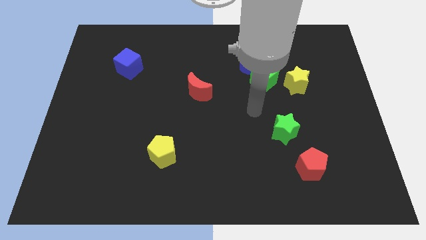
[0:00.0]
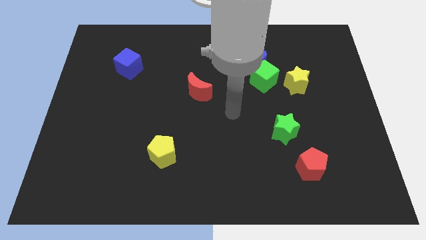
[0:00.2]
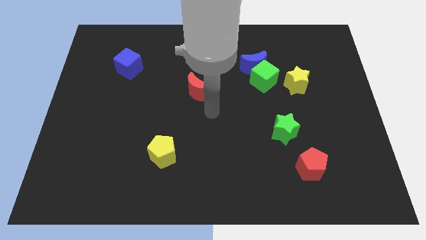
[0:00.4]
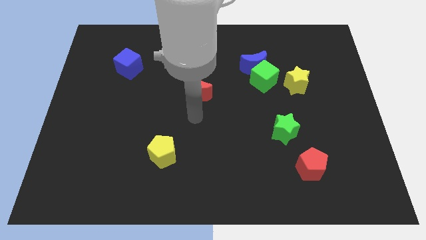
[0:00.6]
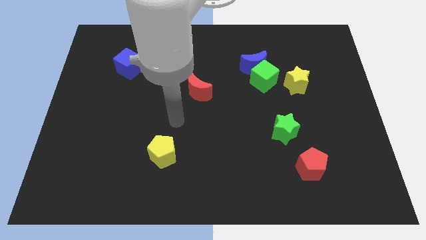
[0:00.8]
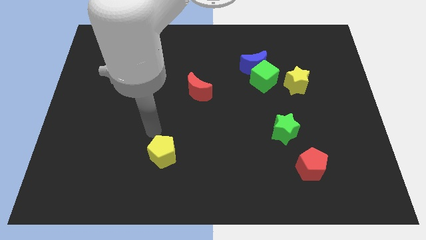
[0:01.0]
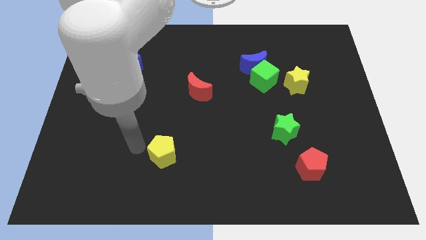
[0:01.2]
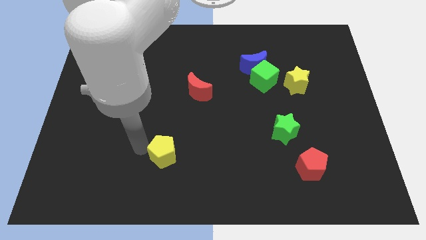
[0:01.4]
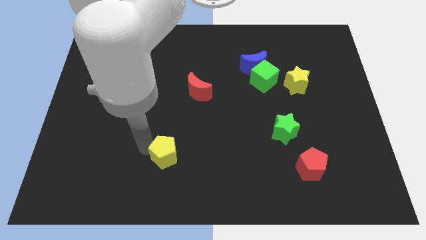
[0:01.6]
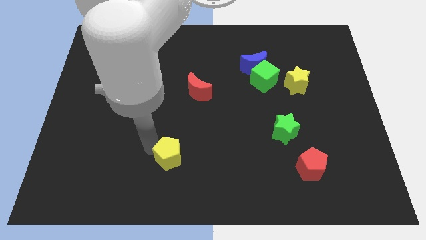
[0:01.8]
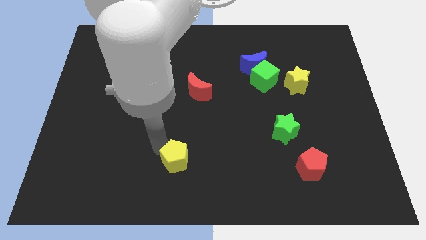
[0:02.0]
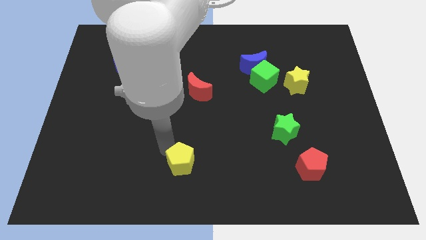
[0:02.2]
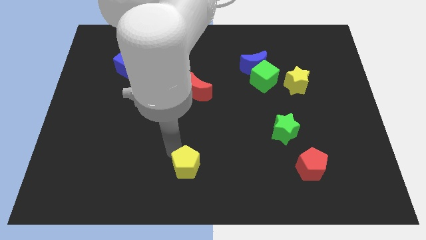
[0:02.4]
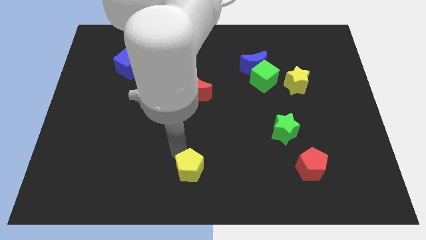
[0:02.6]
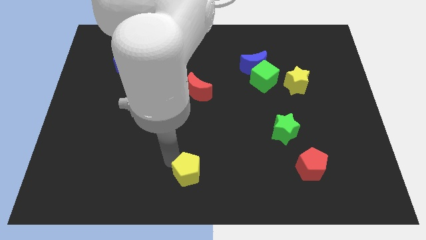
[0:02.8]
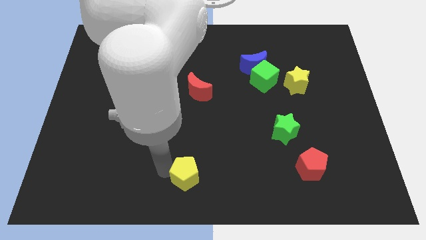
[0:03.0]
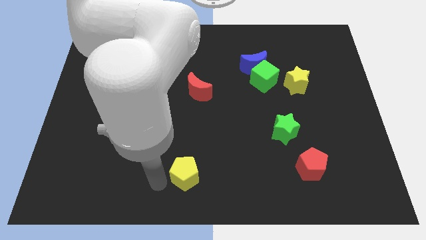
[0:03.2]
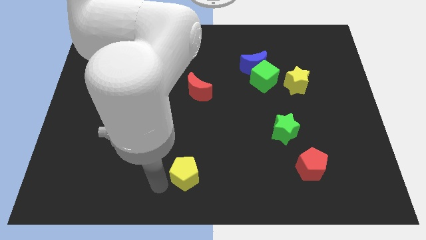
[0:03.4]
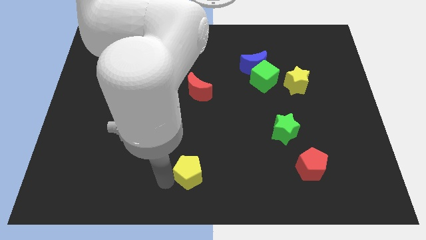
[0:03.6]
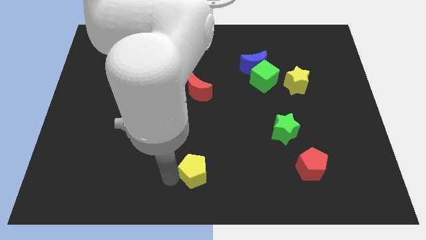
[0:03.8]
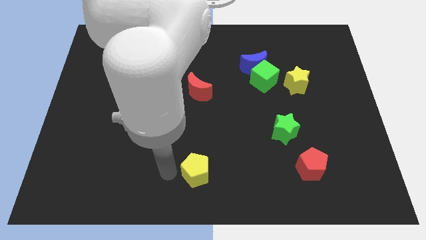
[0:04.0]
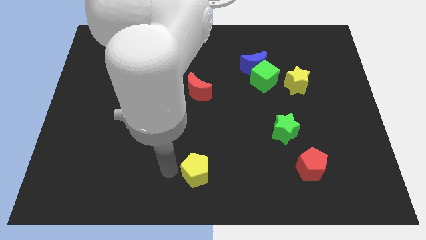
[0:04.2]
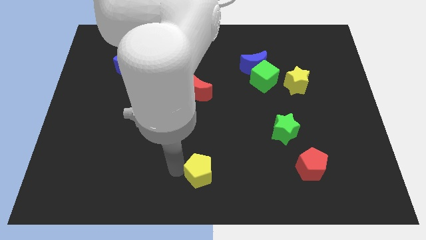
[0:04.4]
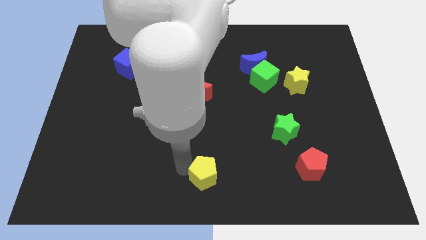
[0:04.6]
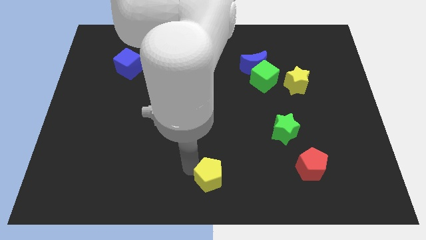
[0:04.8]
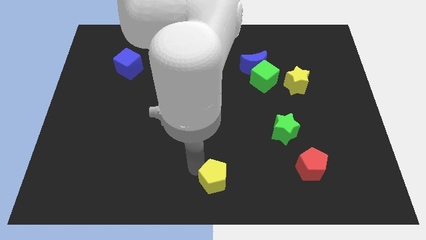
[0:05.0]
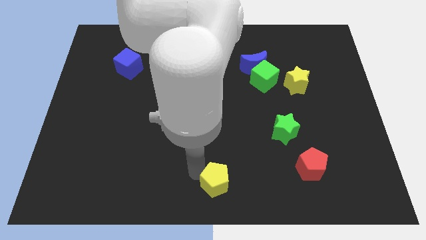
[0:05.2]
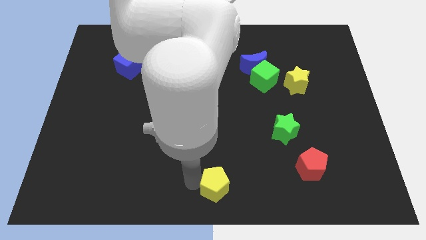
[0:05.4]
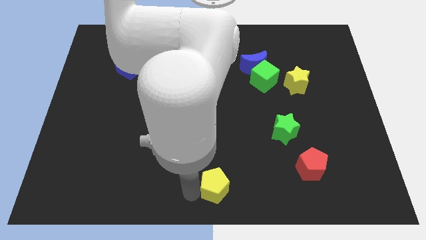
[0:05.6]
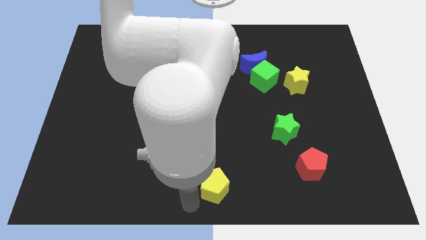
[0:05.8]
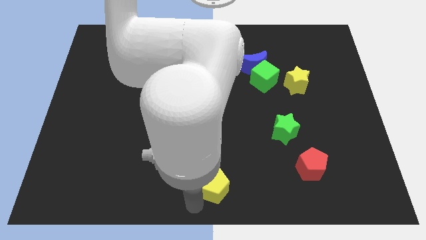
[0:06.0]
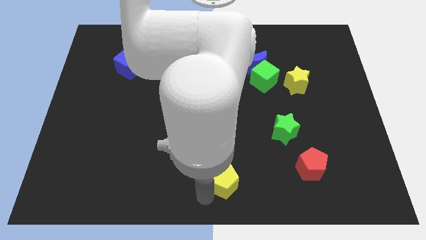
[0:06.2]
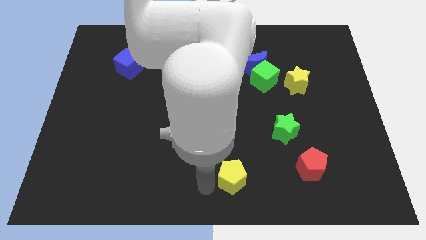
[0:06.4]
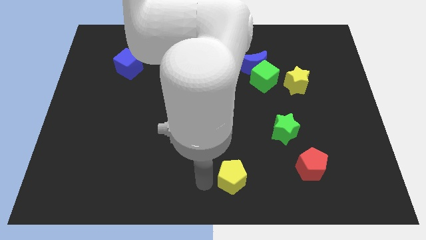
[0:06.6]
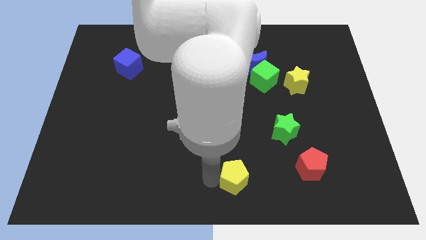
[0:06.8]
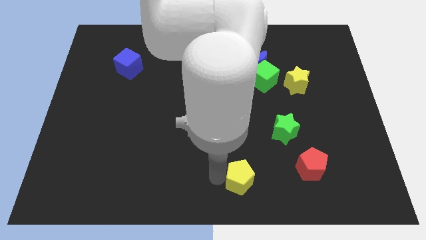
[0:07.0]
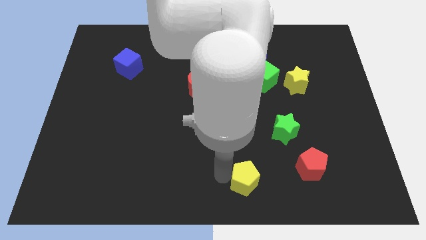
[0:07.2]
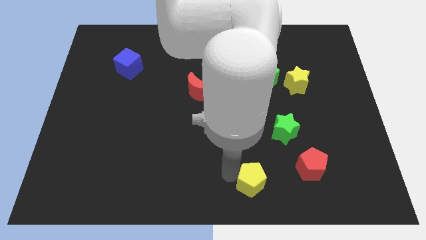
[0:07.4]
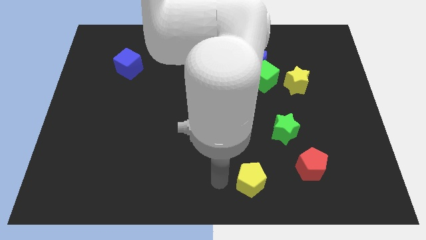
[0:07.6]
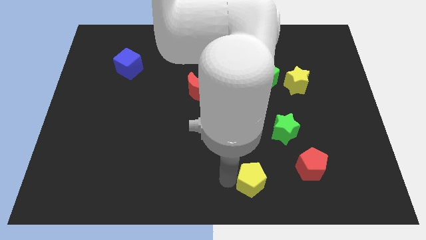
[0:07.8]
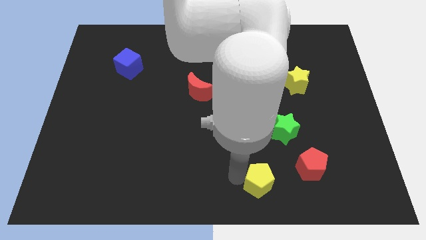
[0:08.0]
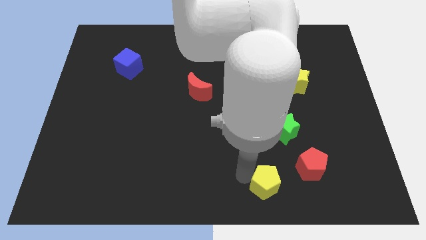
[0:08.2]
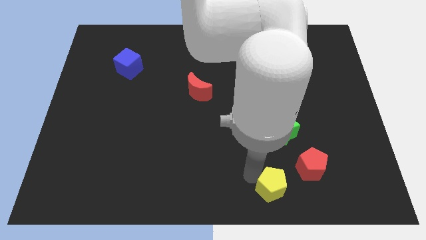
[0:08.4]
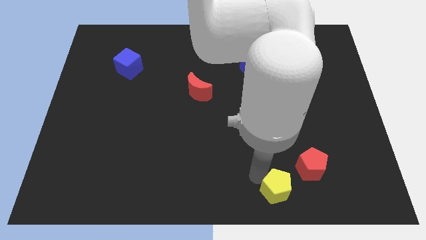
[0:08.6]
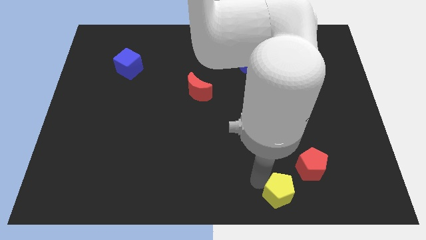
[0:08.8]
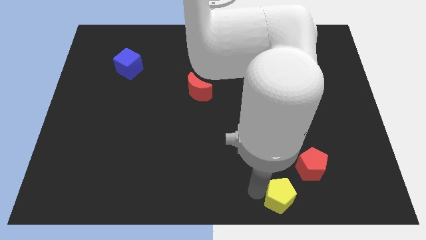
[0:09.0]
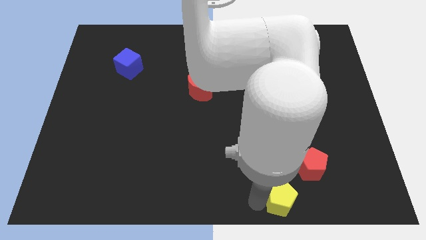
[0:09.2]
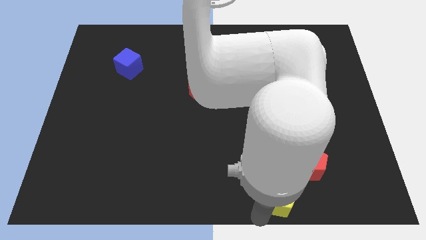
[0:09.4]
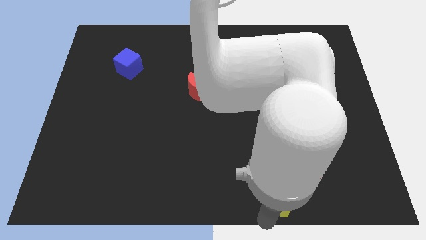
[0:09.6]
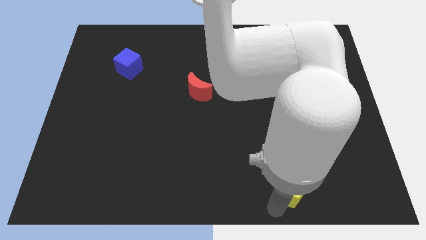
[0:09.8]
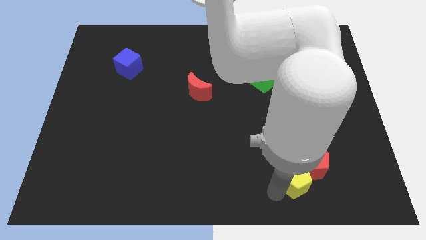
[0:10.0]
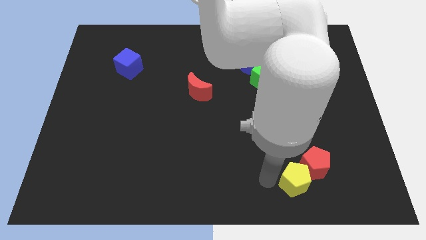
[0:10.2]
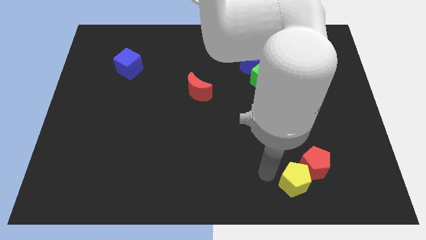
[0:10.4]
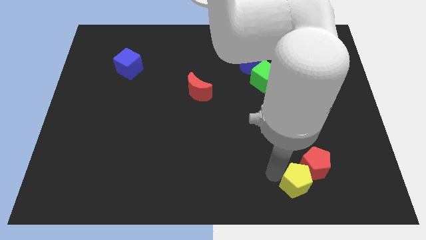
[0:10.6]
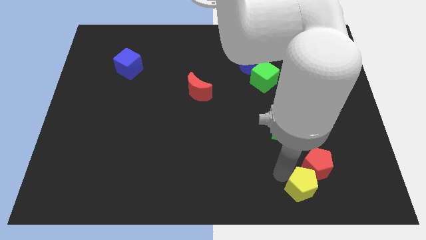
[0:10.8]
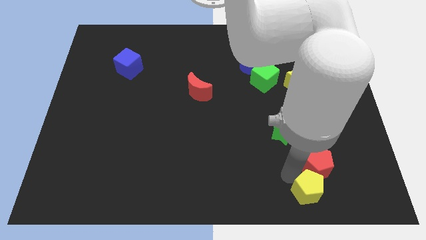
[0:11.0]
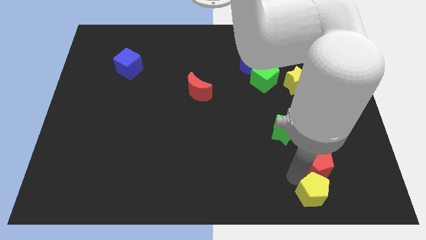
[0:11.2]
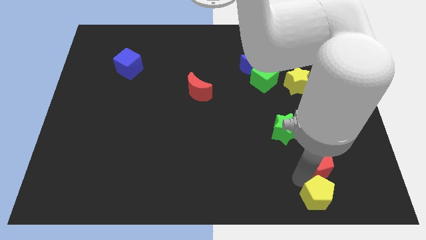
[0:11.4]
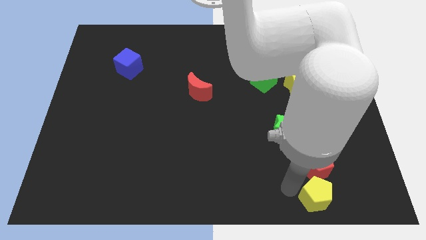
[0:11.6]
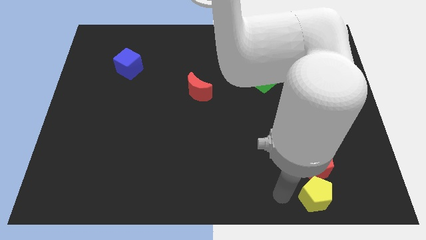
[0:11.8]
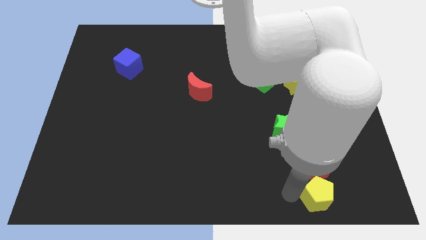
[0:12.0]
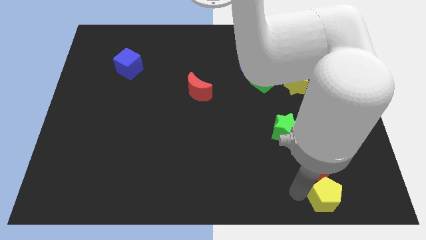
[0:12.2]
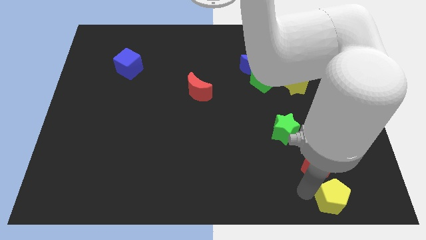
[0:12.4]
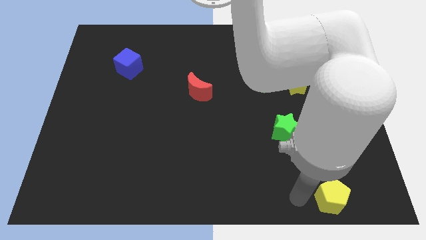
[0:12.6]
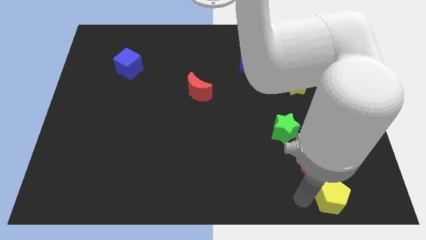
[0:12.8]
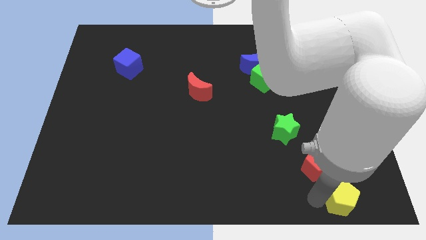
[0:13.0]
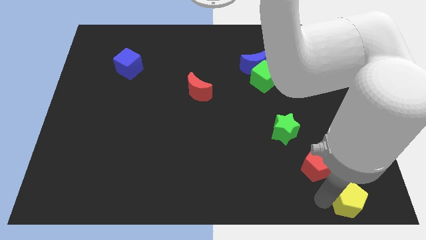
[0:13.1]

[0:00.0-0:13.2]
move the yellow pentagon to the bottom right corner
